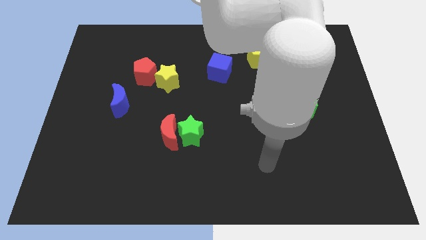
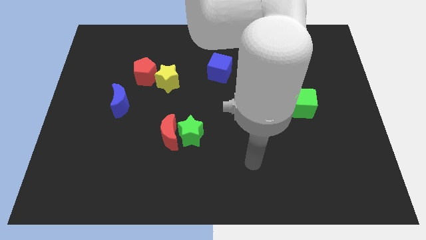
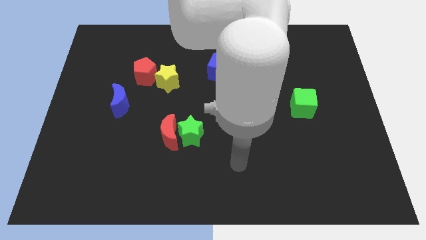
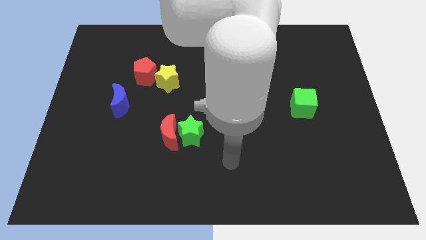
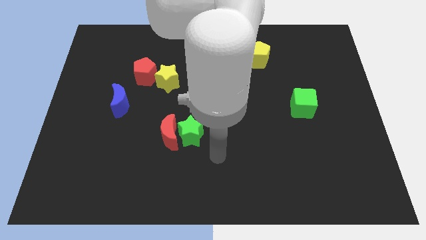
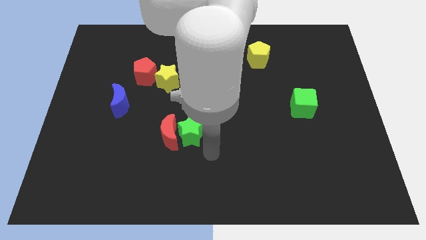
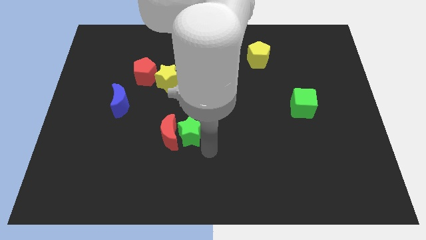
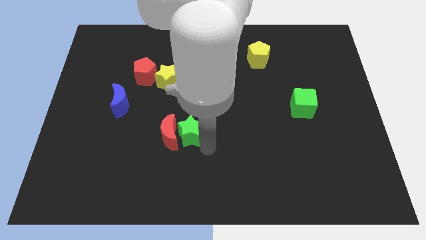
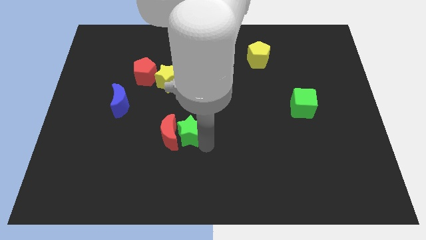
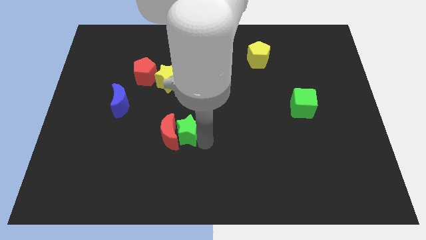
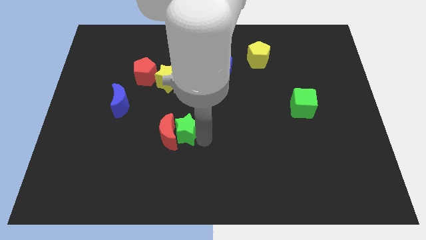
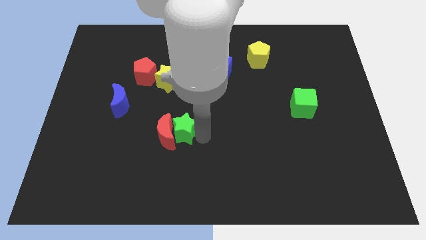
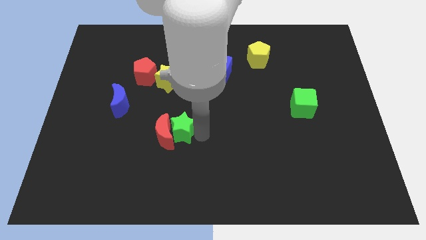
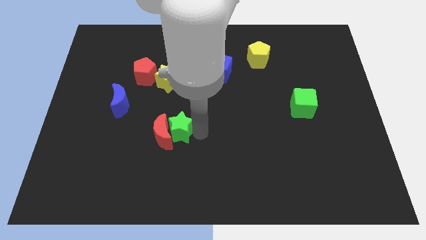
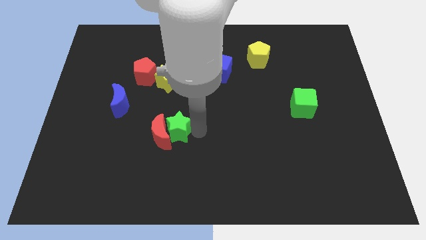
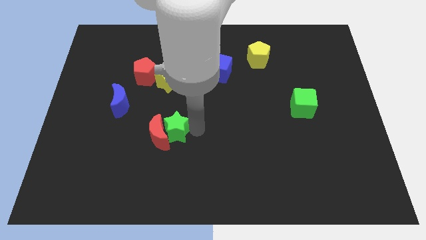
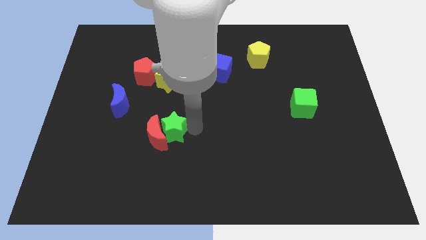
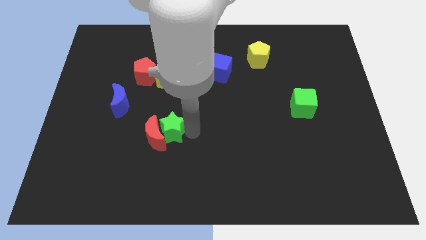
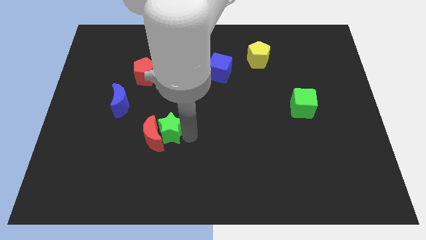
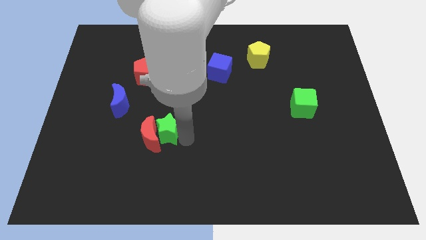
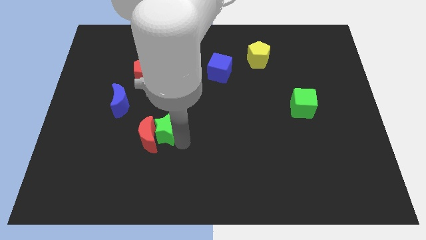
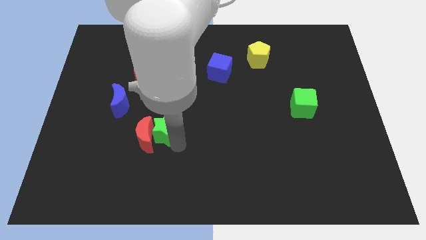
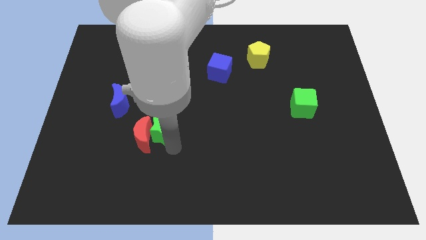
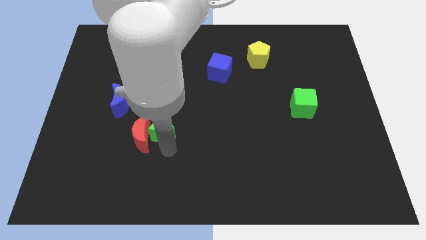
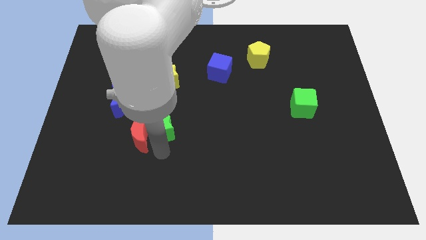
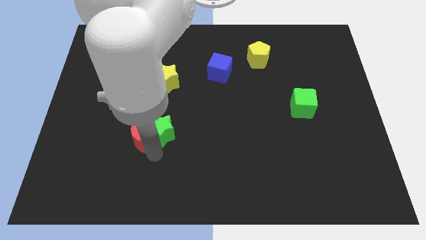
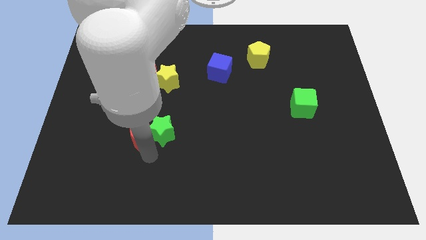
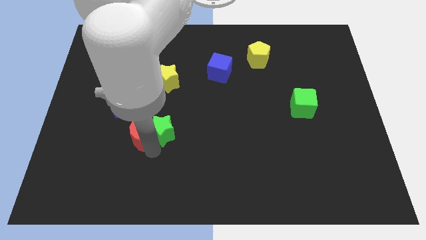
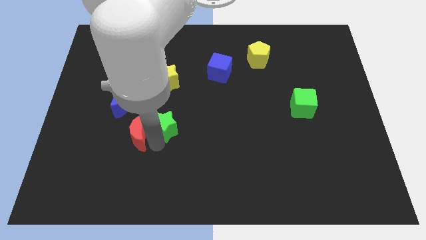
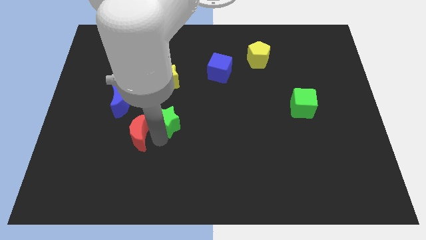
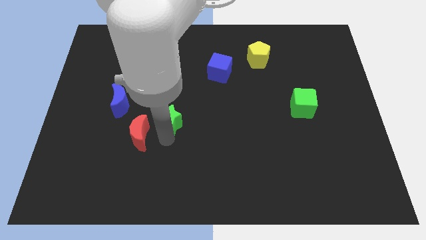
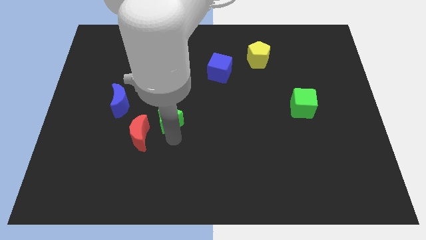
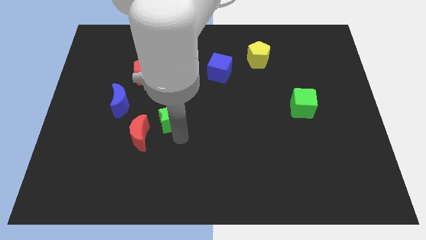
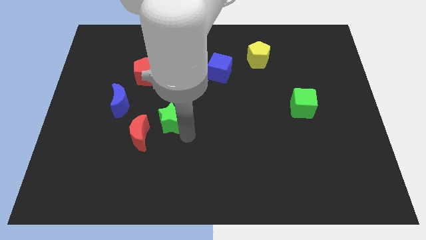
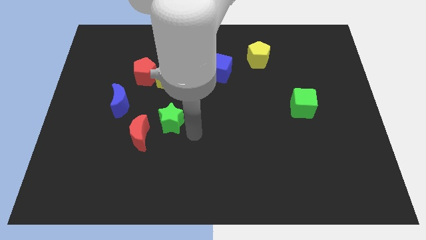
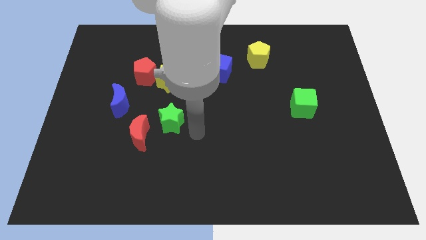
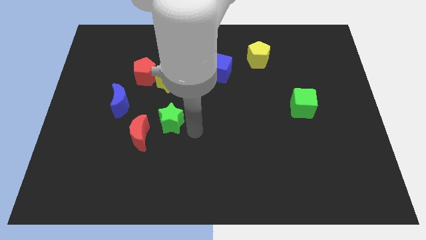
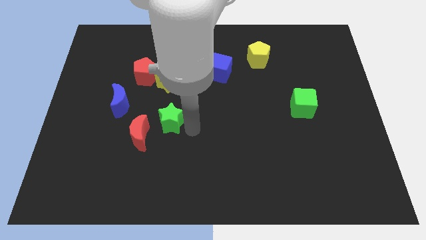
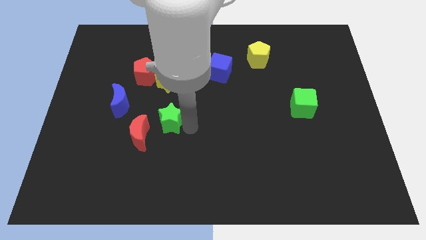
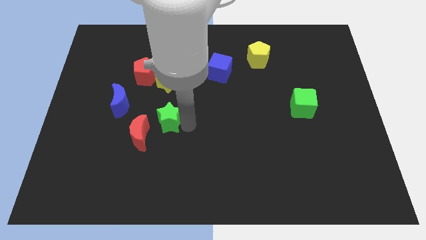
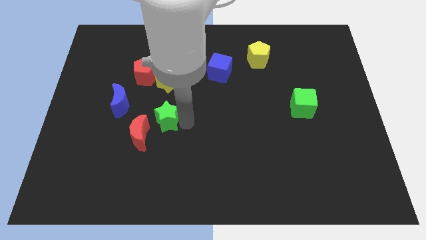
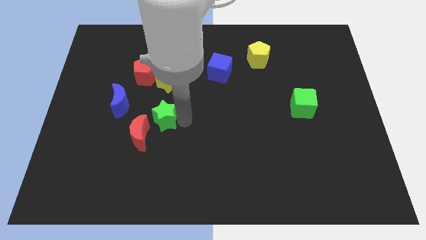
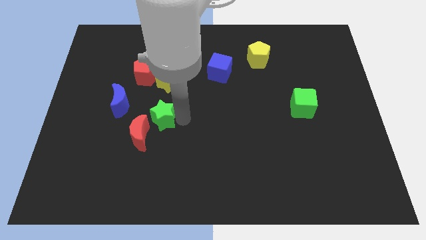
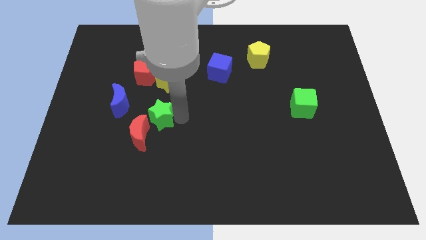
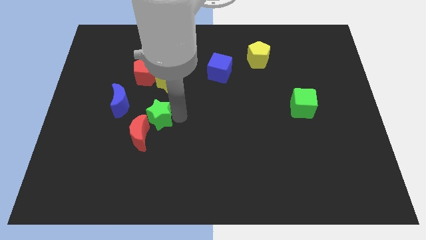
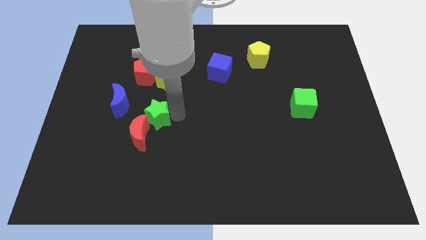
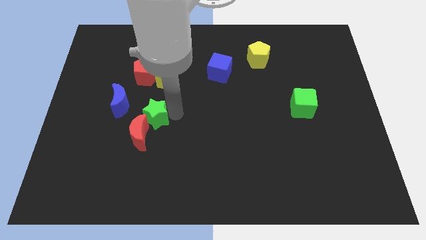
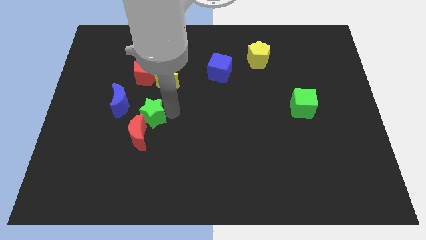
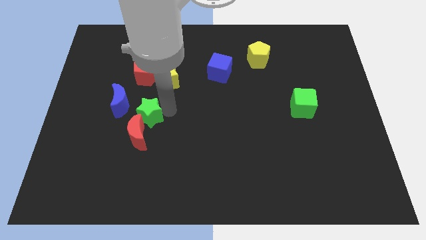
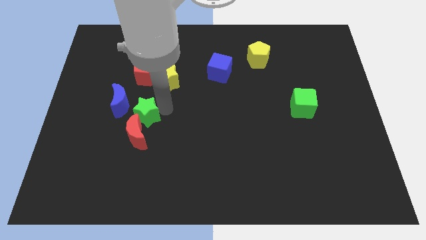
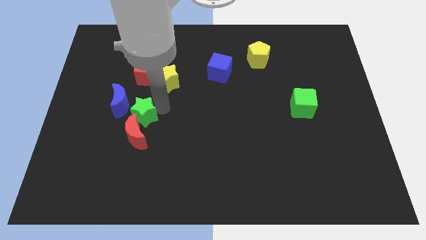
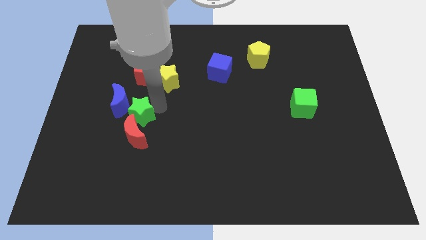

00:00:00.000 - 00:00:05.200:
slide the green star to the blue moon

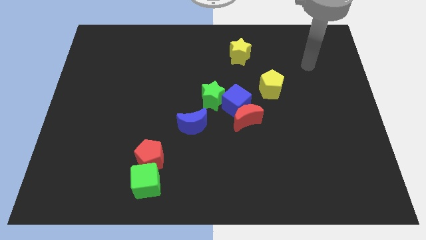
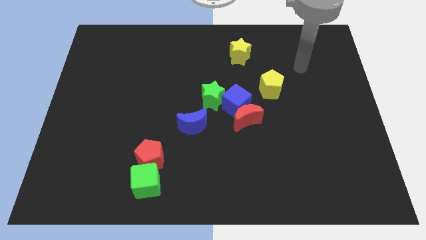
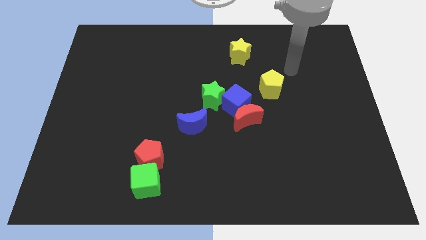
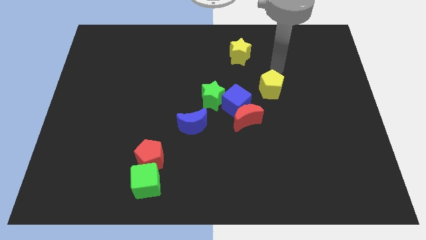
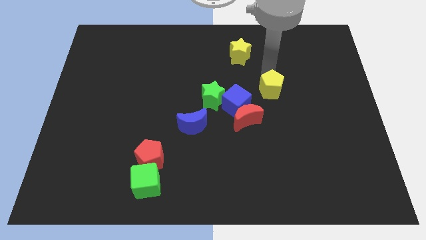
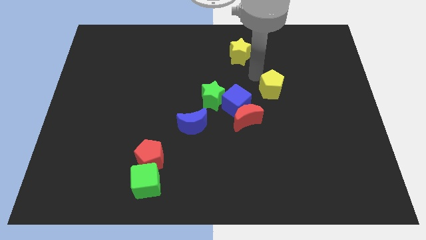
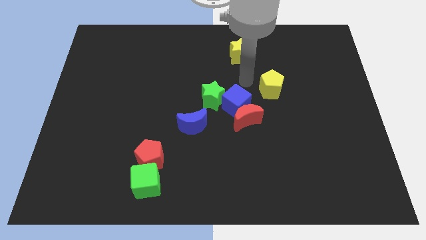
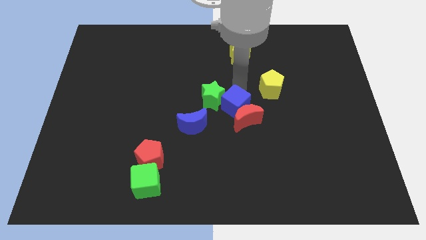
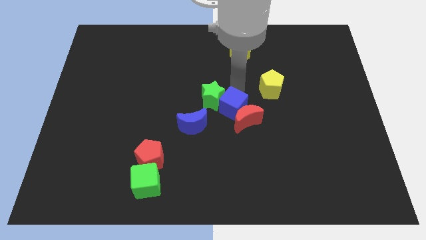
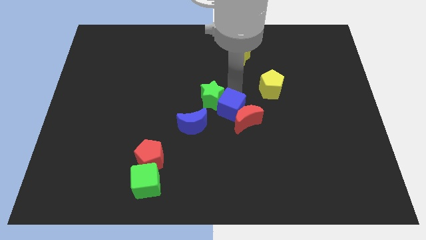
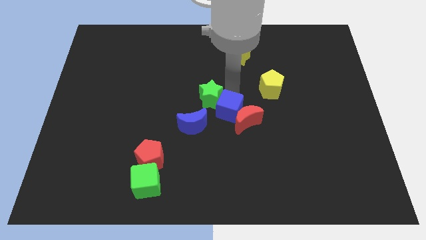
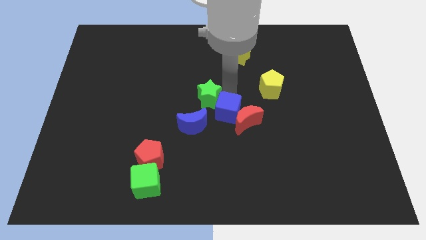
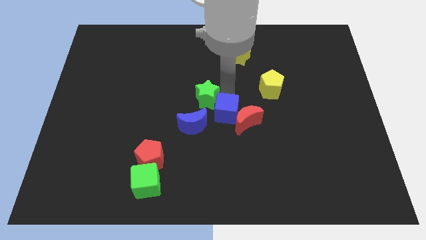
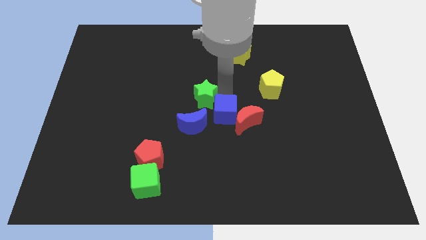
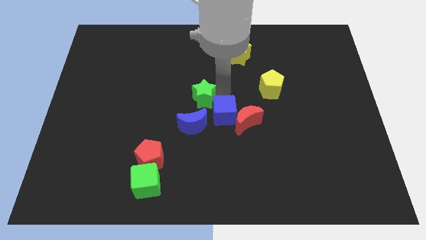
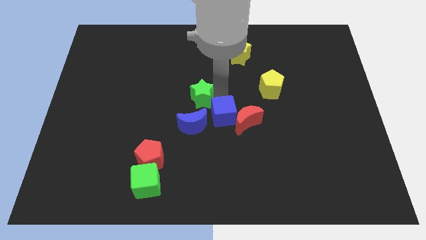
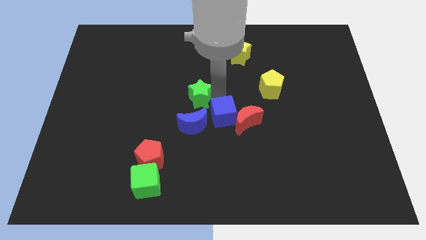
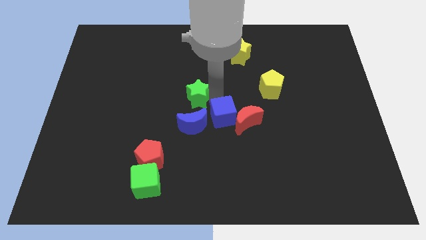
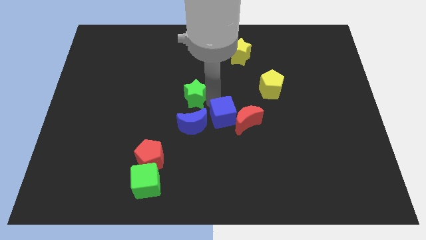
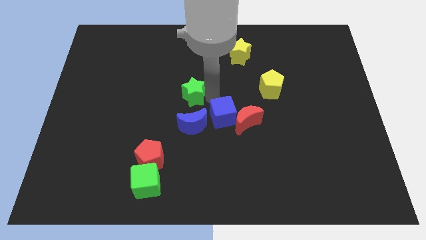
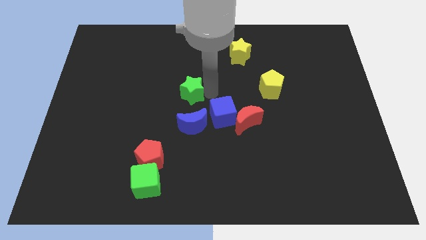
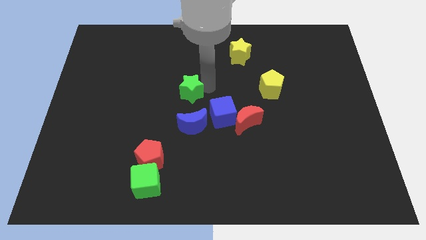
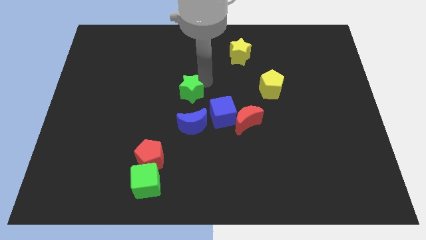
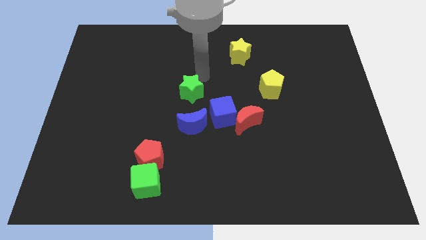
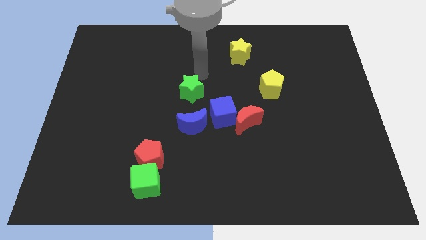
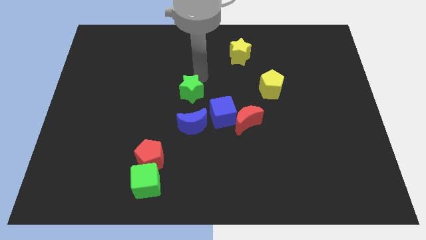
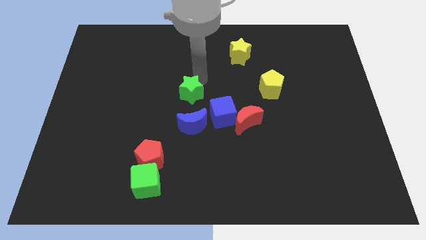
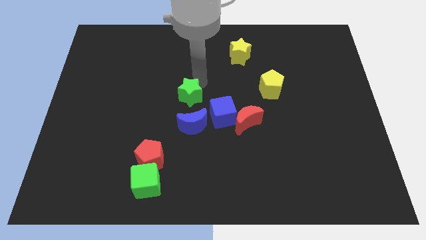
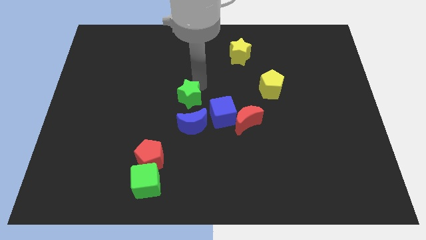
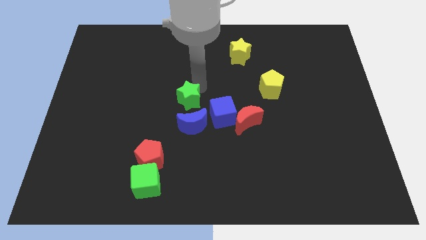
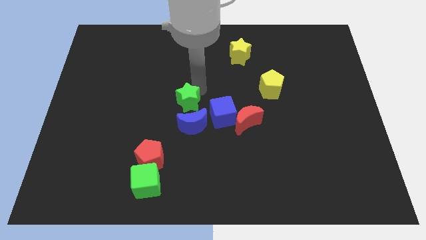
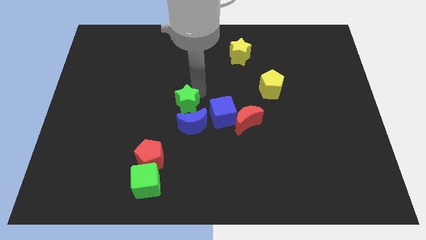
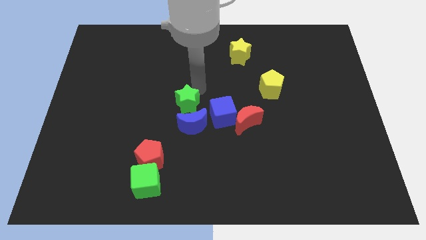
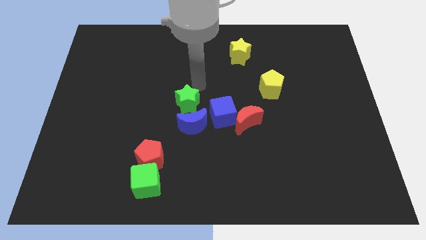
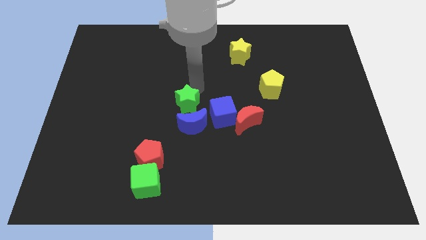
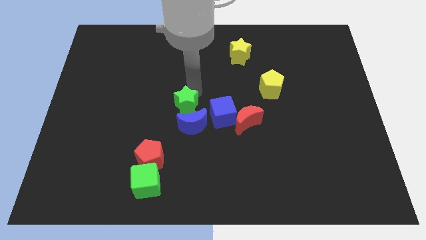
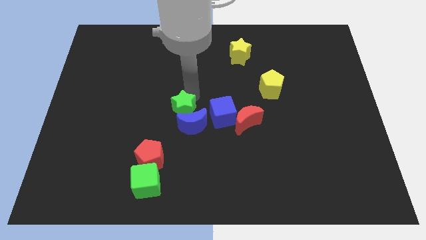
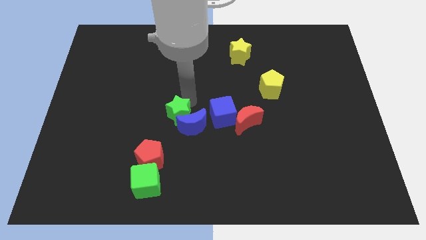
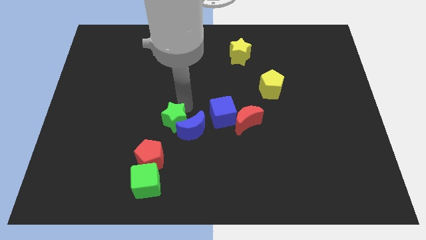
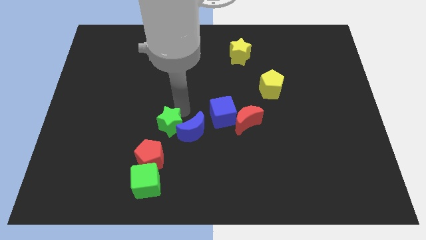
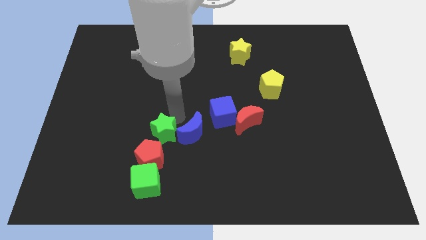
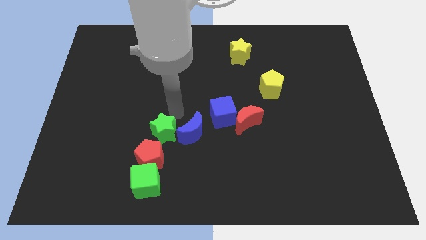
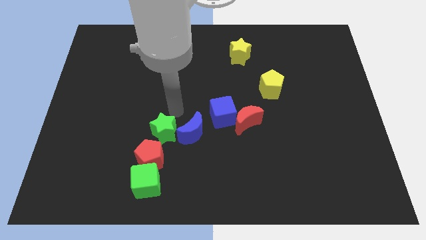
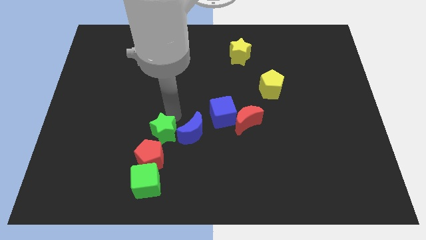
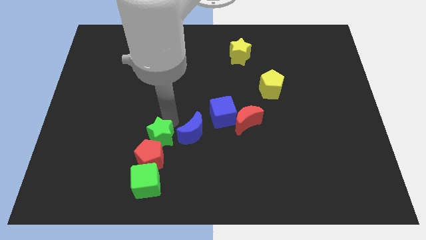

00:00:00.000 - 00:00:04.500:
put the green star to the red pentagon
